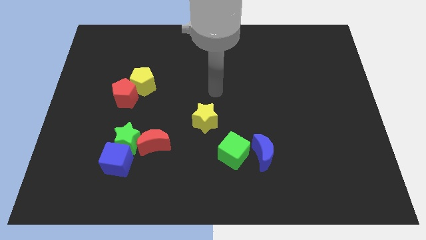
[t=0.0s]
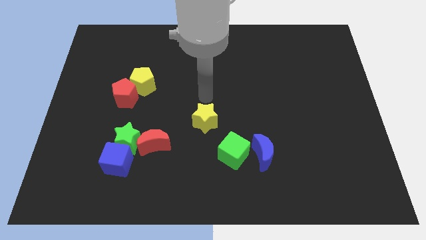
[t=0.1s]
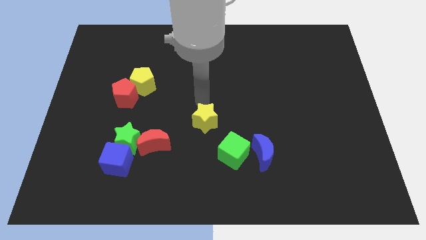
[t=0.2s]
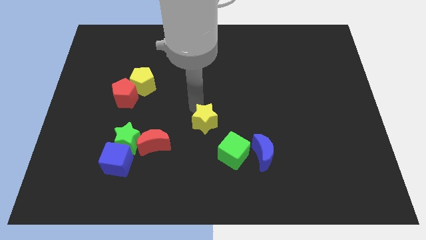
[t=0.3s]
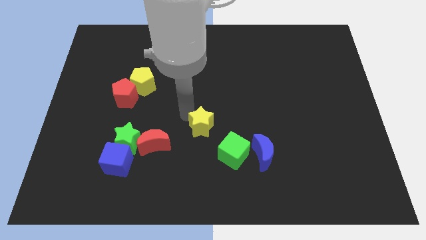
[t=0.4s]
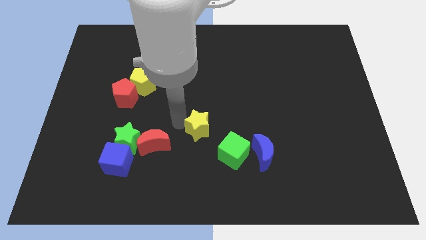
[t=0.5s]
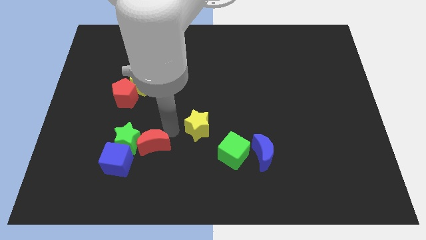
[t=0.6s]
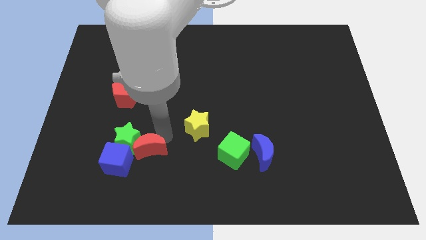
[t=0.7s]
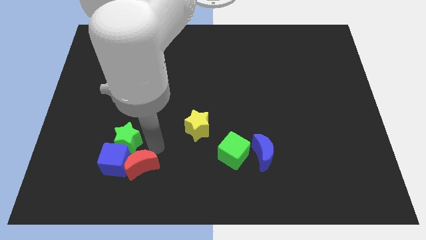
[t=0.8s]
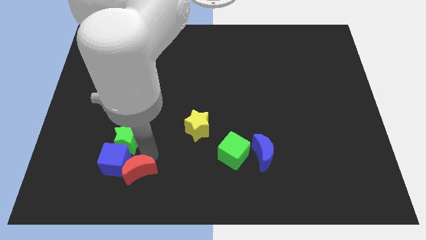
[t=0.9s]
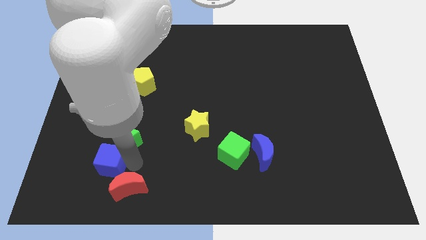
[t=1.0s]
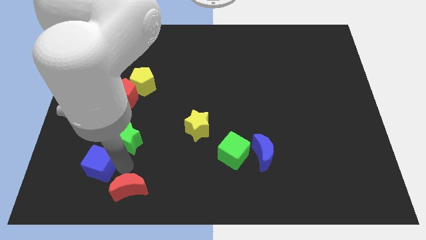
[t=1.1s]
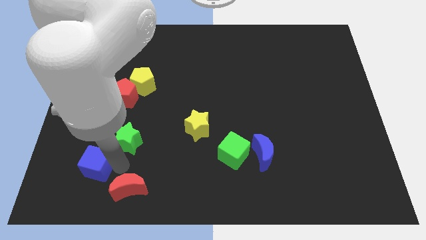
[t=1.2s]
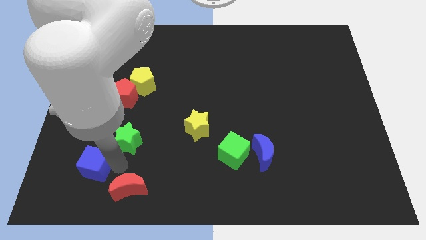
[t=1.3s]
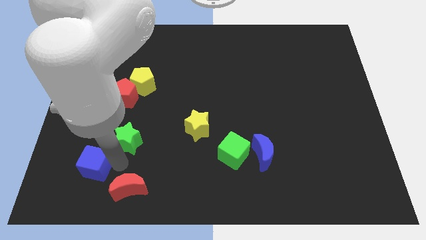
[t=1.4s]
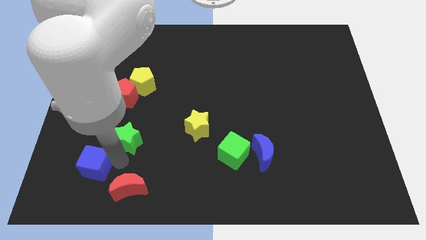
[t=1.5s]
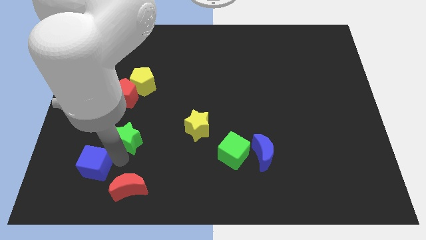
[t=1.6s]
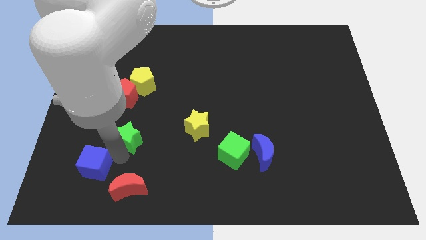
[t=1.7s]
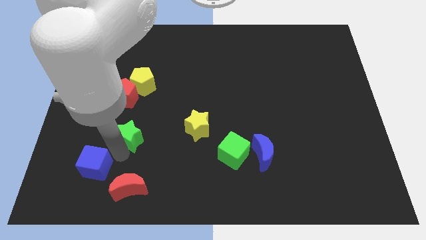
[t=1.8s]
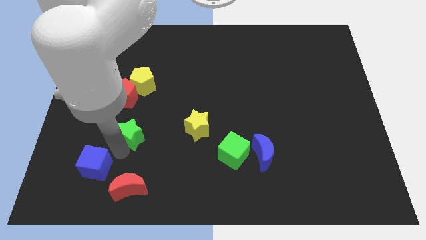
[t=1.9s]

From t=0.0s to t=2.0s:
move the green star away from the blue cube and red moon

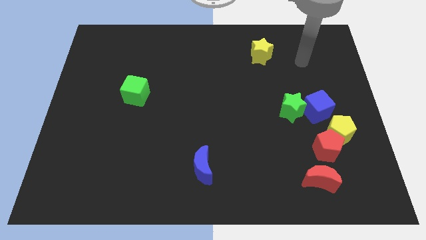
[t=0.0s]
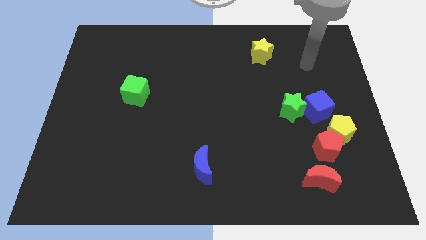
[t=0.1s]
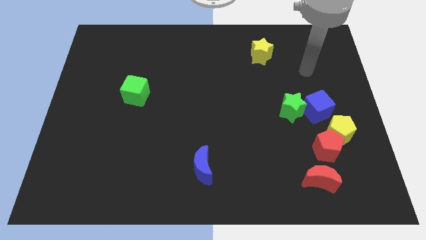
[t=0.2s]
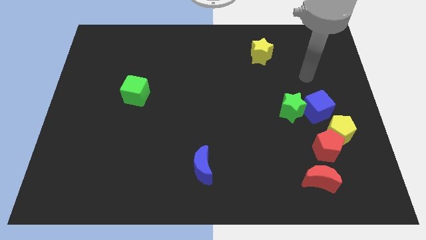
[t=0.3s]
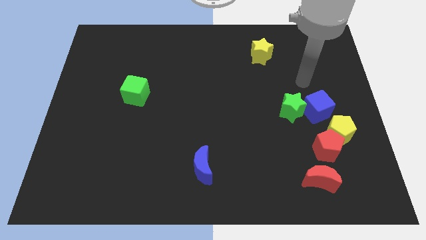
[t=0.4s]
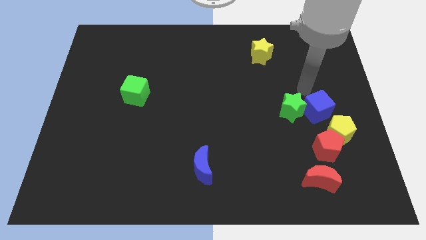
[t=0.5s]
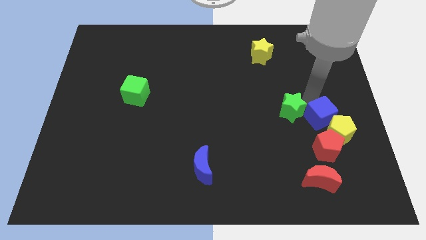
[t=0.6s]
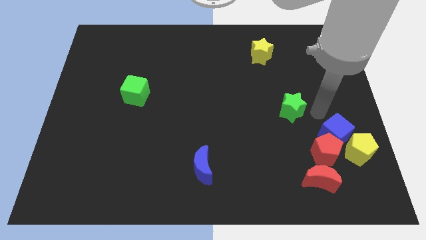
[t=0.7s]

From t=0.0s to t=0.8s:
move the green star away from the blue cube

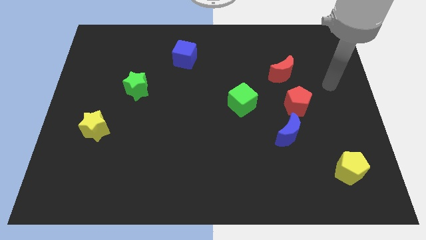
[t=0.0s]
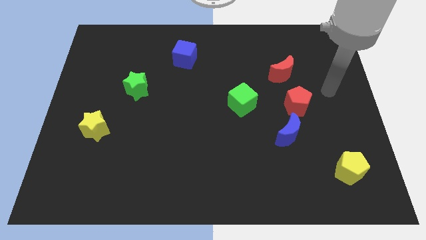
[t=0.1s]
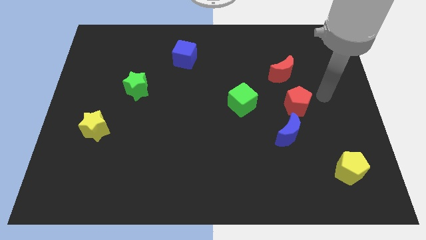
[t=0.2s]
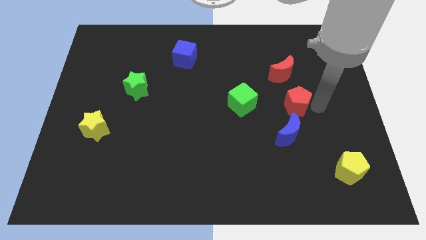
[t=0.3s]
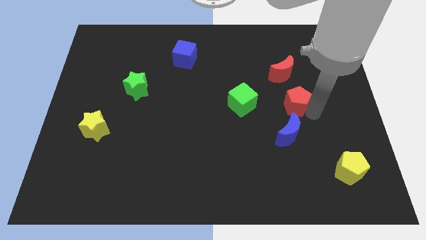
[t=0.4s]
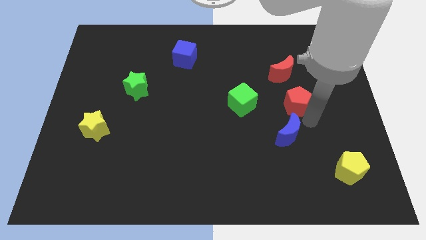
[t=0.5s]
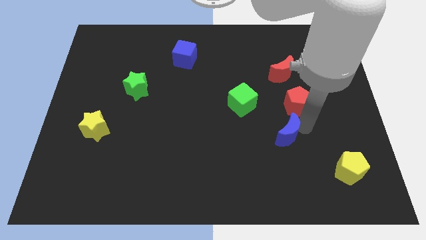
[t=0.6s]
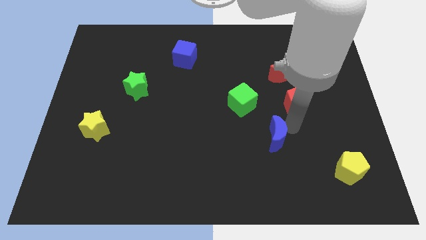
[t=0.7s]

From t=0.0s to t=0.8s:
separate the red pentagon from the blue moon

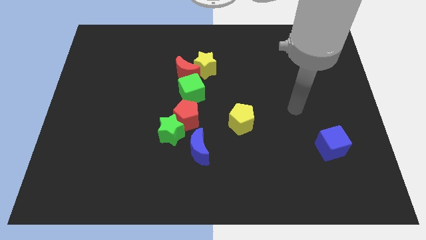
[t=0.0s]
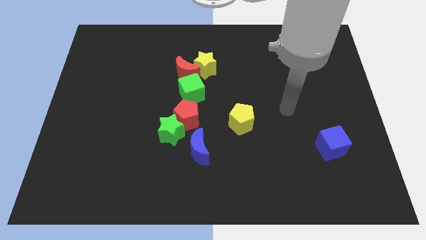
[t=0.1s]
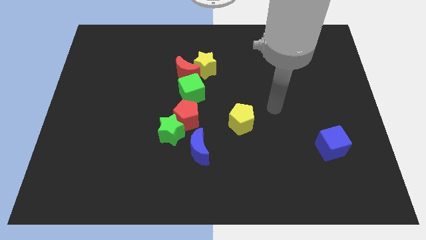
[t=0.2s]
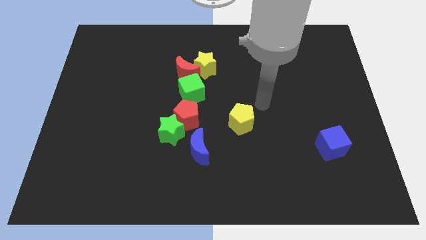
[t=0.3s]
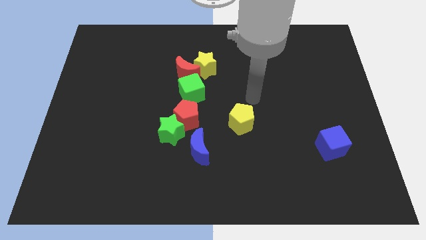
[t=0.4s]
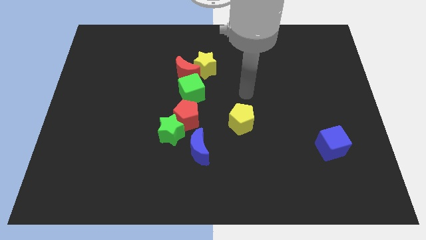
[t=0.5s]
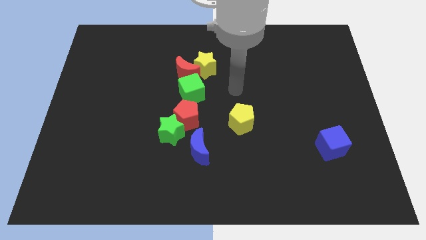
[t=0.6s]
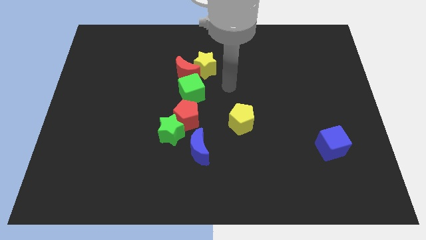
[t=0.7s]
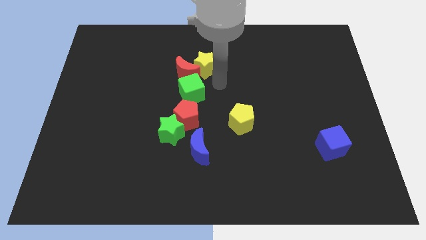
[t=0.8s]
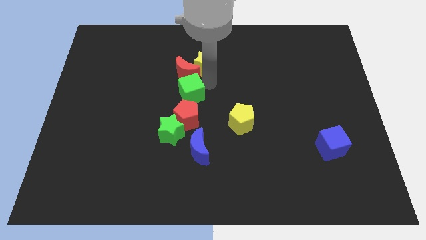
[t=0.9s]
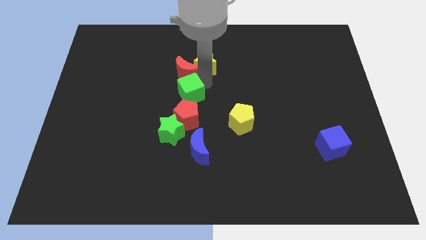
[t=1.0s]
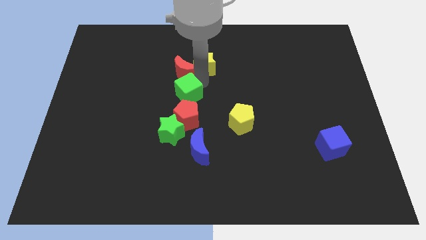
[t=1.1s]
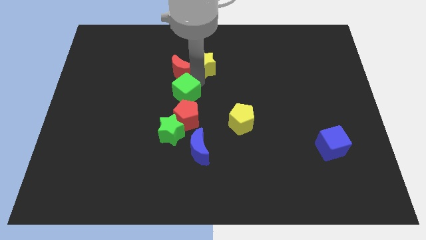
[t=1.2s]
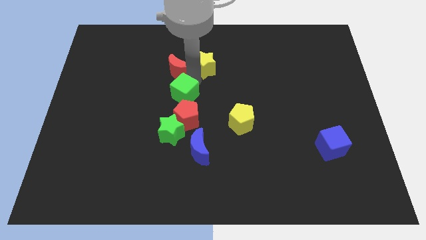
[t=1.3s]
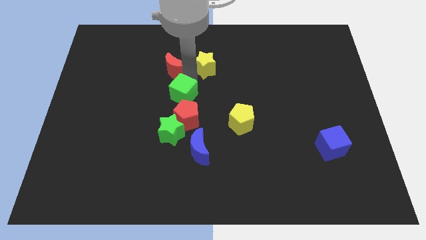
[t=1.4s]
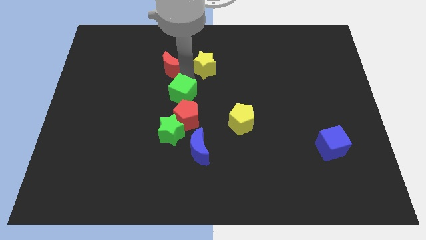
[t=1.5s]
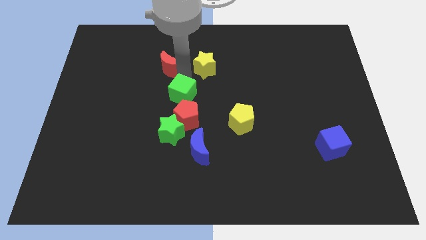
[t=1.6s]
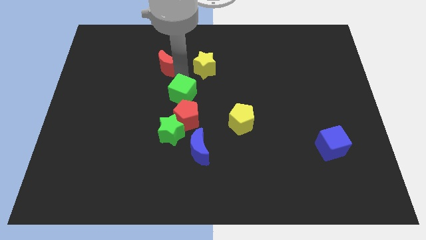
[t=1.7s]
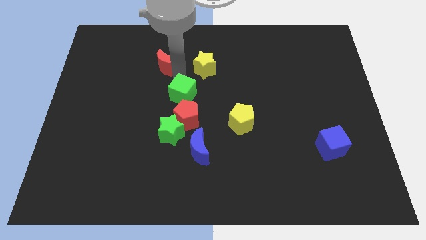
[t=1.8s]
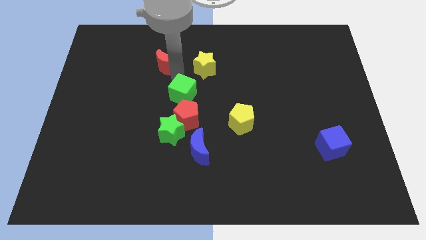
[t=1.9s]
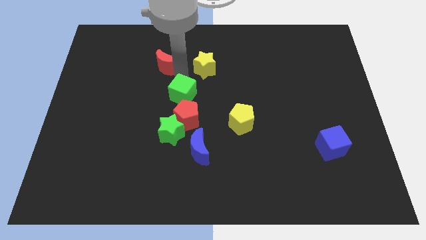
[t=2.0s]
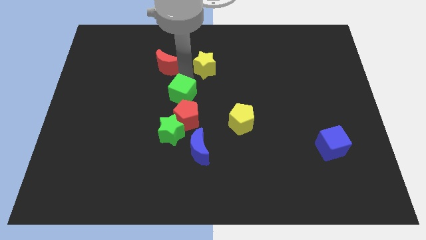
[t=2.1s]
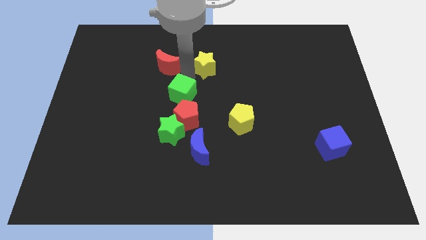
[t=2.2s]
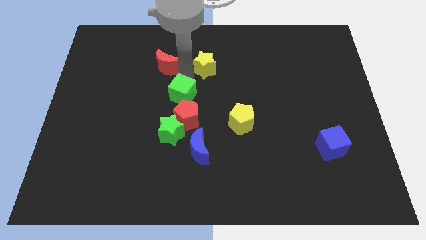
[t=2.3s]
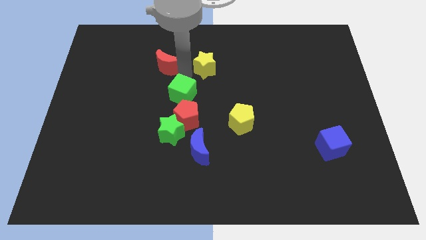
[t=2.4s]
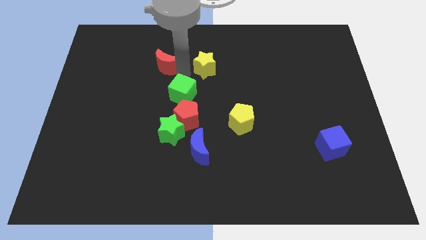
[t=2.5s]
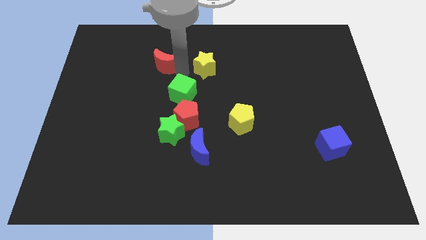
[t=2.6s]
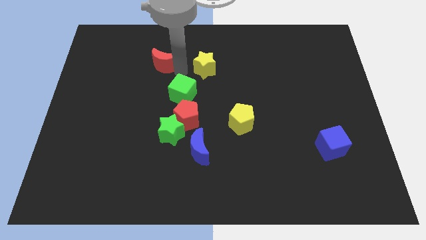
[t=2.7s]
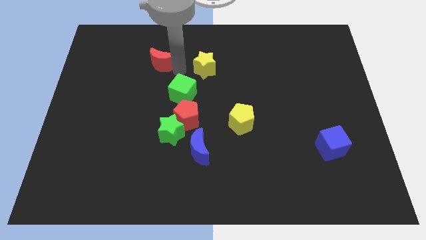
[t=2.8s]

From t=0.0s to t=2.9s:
move the red moon away from the yellow star and green cube

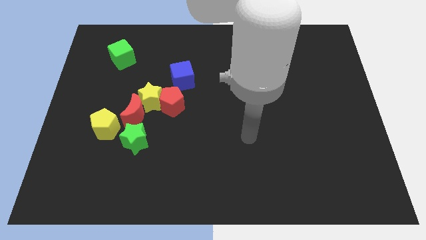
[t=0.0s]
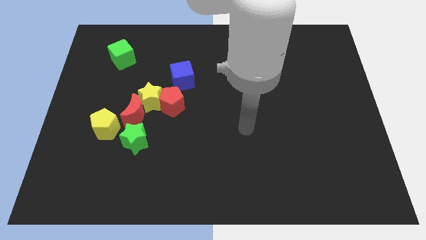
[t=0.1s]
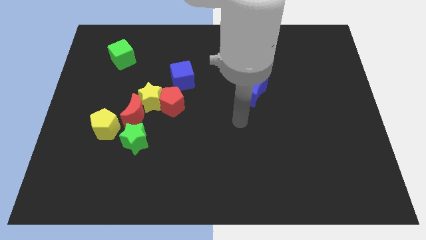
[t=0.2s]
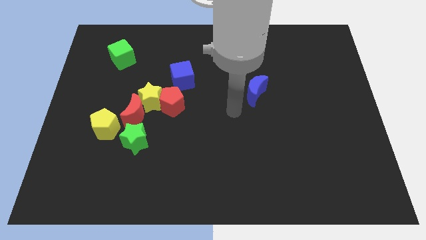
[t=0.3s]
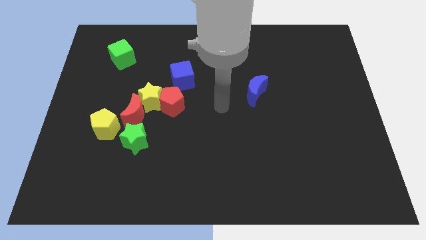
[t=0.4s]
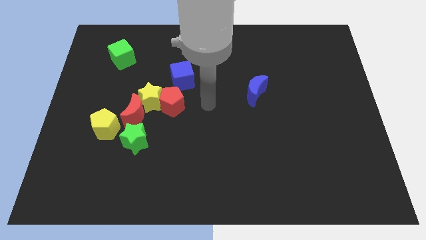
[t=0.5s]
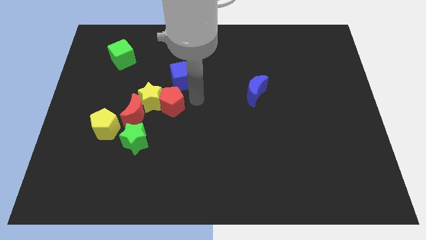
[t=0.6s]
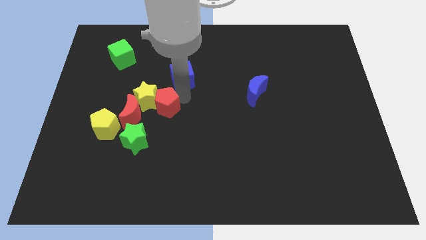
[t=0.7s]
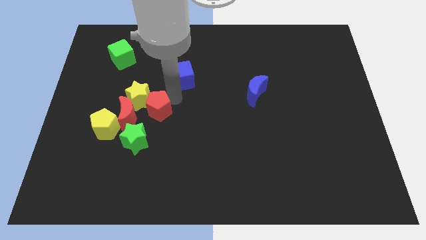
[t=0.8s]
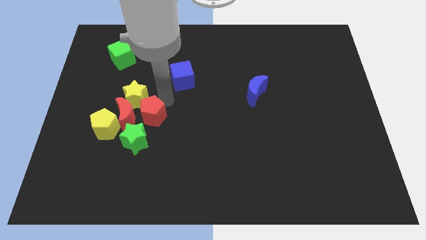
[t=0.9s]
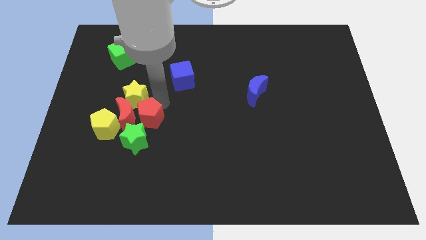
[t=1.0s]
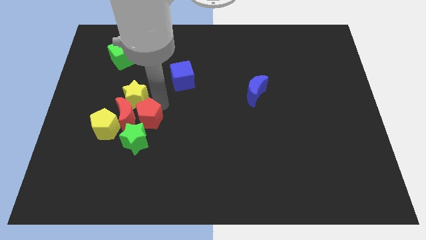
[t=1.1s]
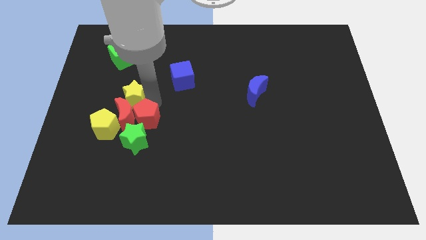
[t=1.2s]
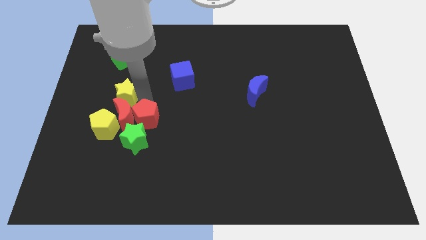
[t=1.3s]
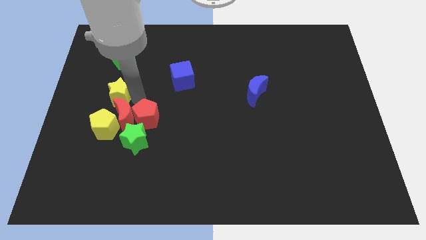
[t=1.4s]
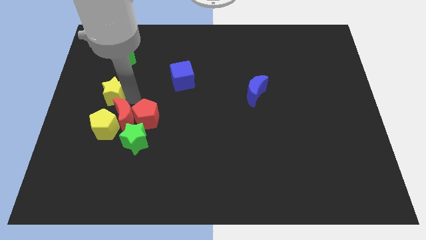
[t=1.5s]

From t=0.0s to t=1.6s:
pull the yellow star apart from the clump

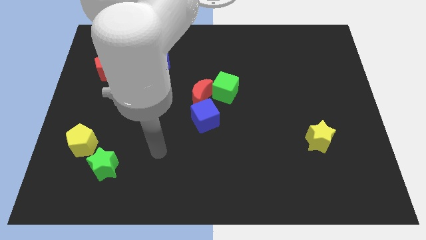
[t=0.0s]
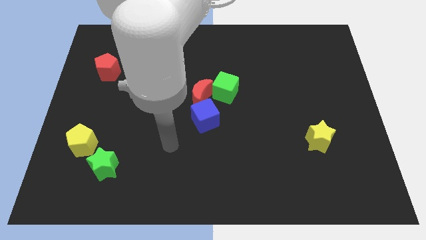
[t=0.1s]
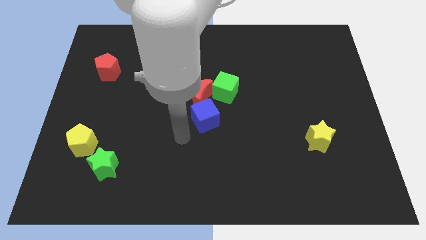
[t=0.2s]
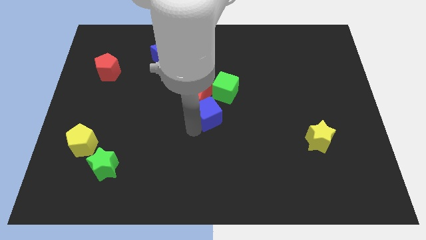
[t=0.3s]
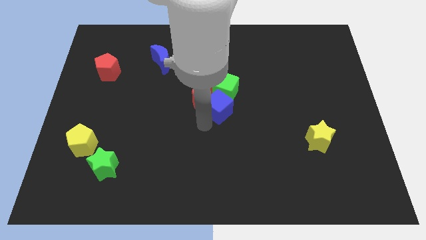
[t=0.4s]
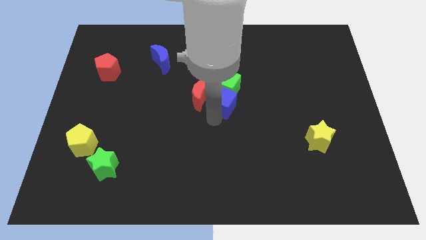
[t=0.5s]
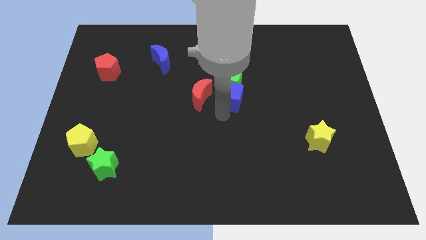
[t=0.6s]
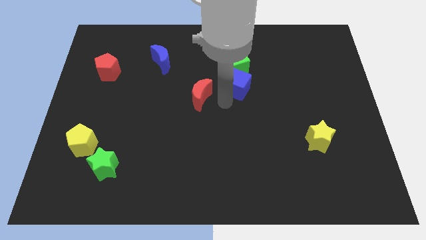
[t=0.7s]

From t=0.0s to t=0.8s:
move the red moon away from the green cube and blue cube

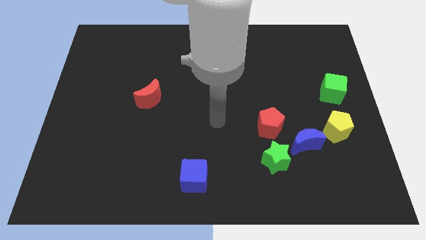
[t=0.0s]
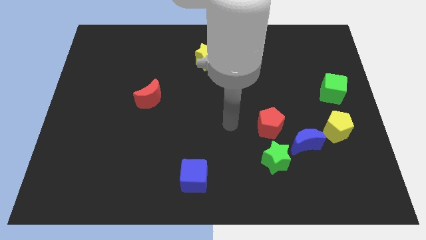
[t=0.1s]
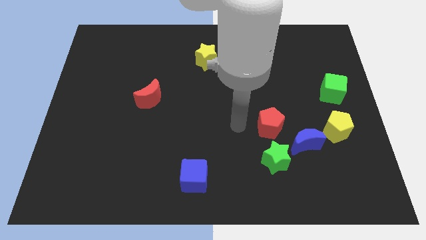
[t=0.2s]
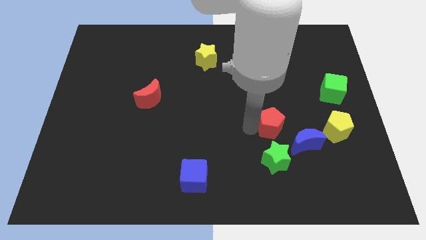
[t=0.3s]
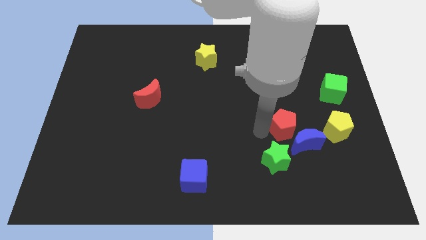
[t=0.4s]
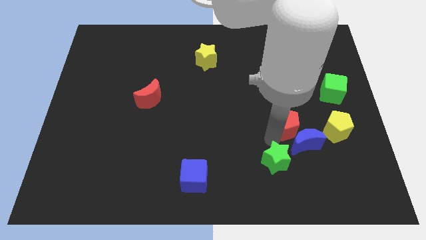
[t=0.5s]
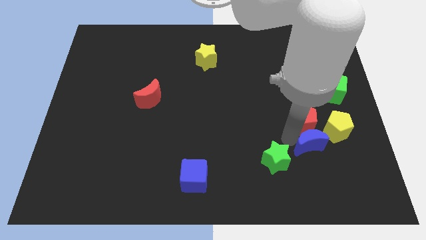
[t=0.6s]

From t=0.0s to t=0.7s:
separate the green star from the blue moon and red pentagon
